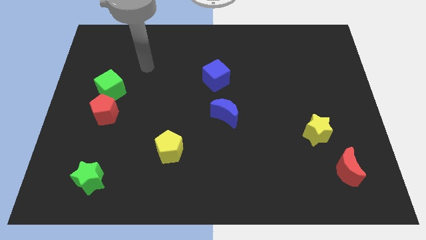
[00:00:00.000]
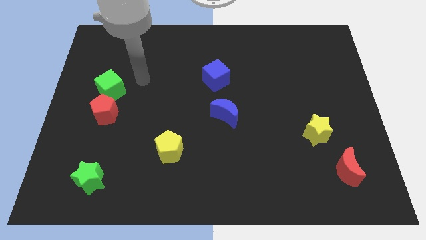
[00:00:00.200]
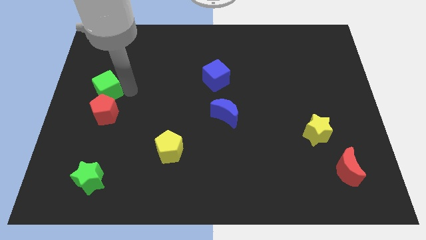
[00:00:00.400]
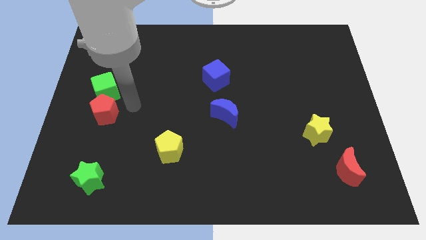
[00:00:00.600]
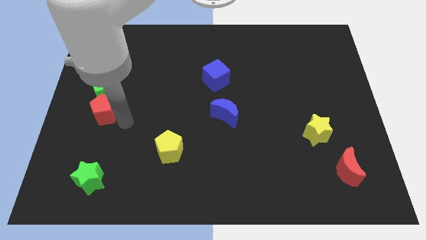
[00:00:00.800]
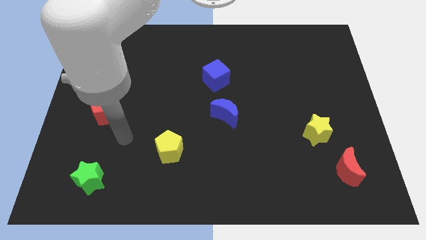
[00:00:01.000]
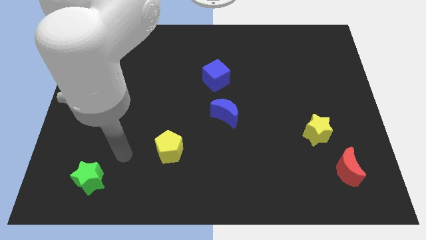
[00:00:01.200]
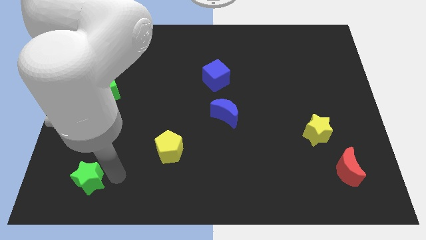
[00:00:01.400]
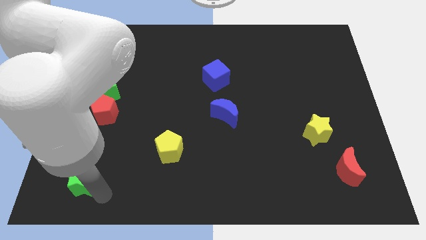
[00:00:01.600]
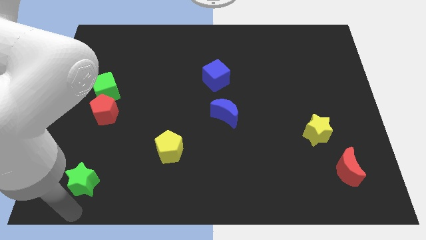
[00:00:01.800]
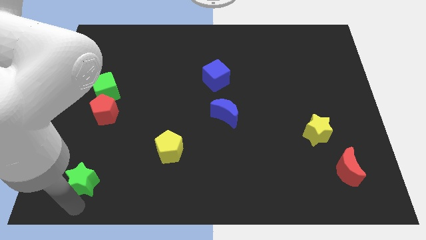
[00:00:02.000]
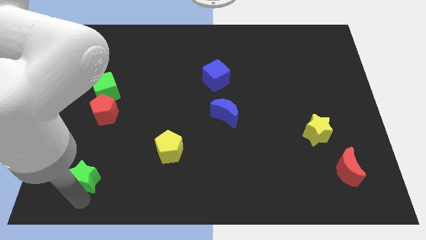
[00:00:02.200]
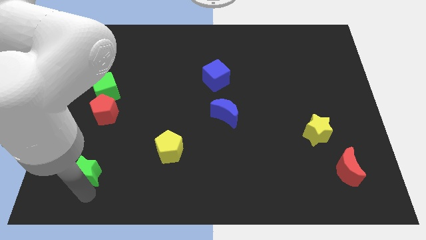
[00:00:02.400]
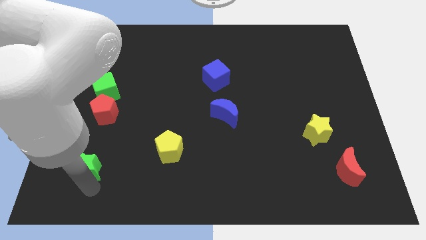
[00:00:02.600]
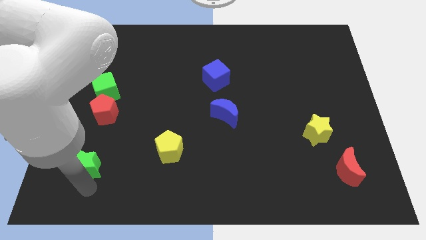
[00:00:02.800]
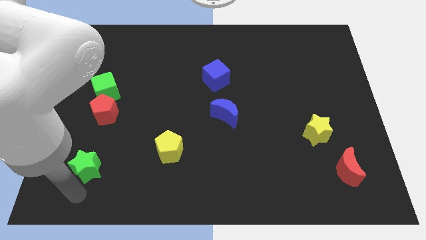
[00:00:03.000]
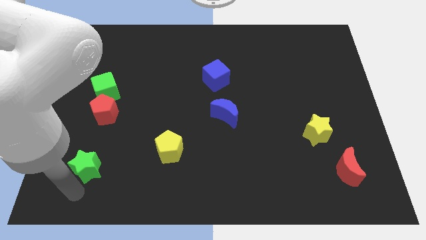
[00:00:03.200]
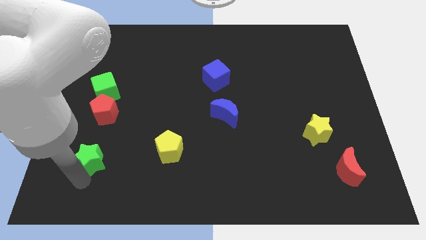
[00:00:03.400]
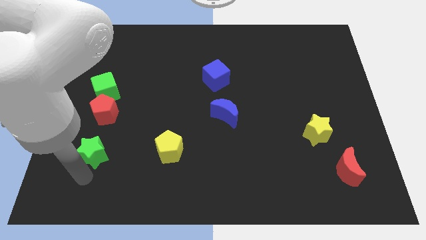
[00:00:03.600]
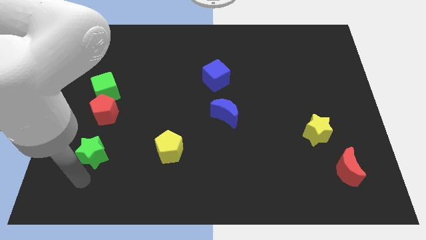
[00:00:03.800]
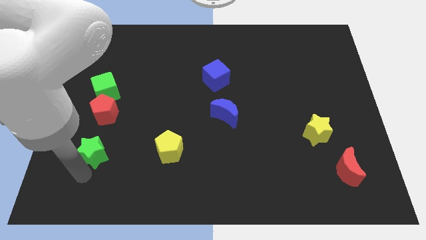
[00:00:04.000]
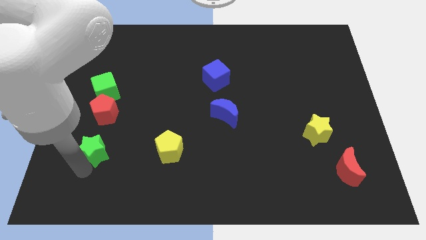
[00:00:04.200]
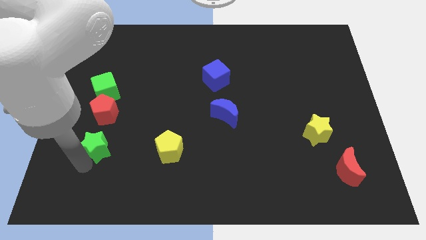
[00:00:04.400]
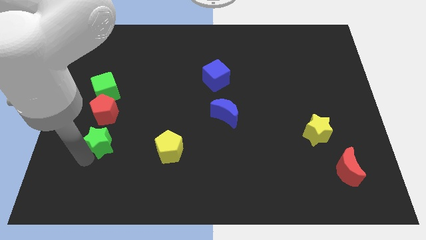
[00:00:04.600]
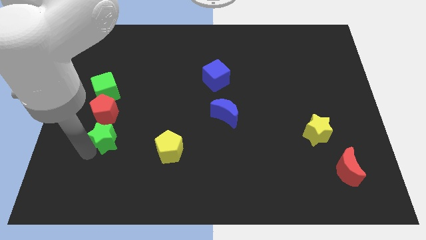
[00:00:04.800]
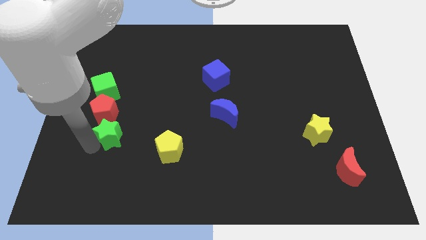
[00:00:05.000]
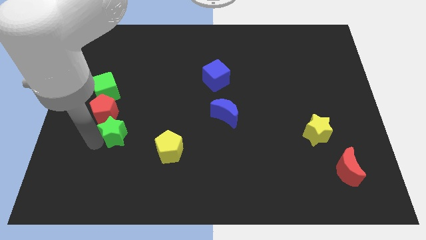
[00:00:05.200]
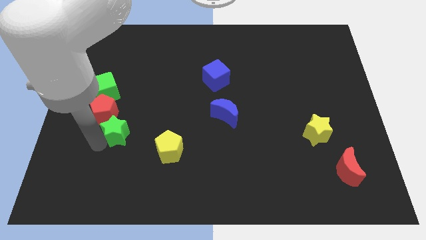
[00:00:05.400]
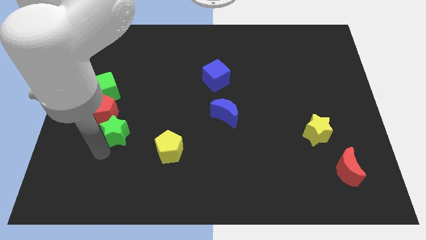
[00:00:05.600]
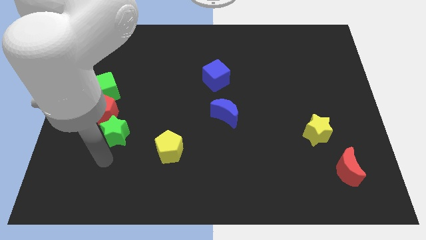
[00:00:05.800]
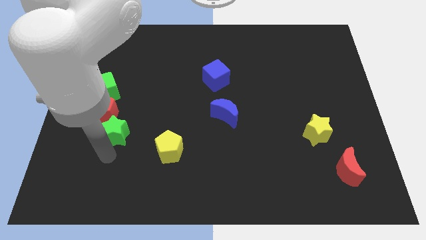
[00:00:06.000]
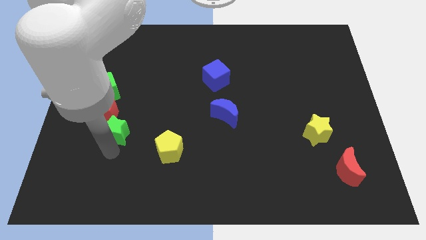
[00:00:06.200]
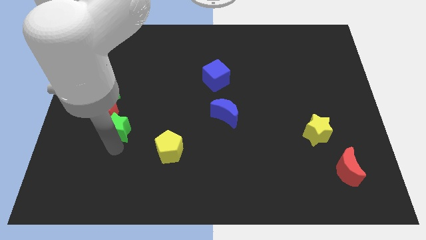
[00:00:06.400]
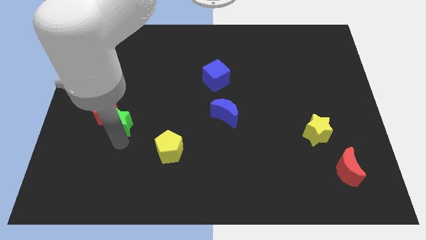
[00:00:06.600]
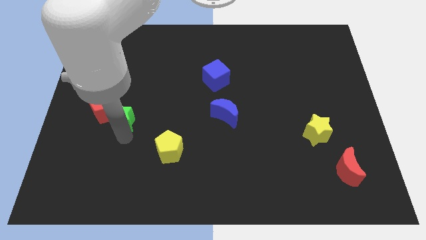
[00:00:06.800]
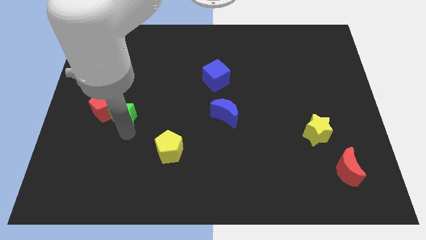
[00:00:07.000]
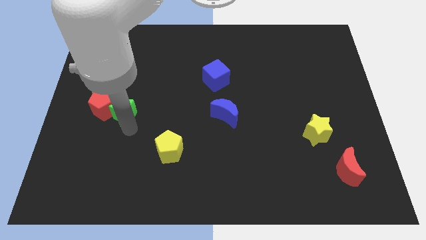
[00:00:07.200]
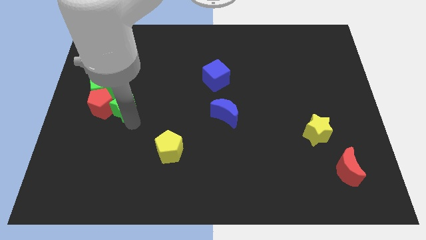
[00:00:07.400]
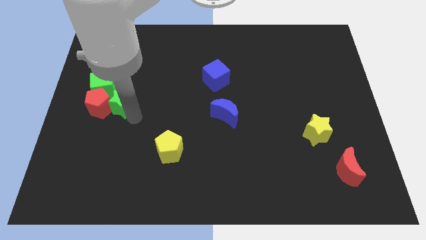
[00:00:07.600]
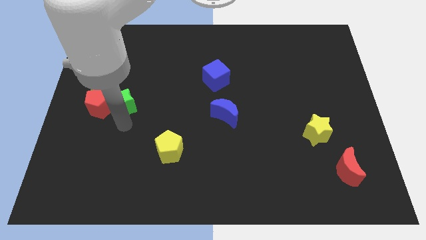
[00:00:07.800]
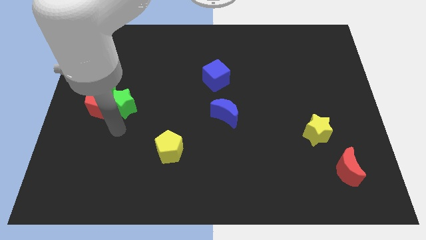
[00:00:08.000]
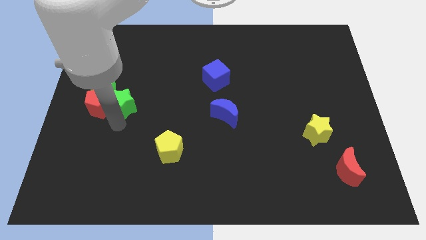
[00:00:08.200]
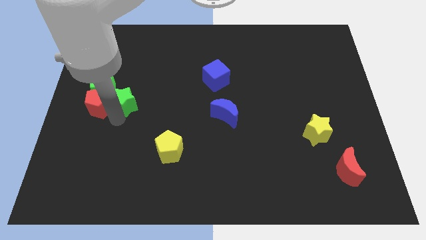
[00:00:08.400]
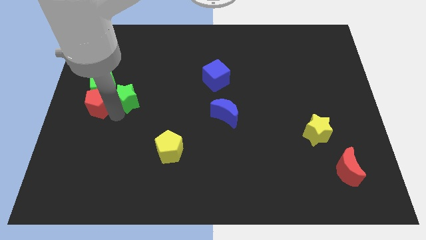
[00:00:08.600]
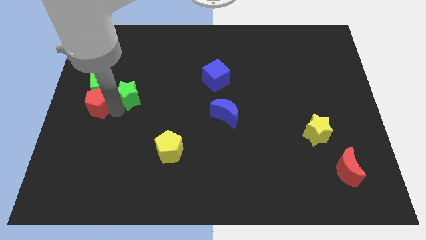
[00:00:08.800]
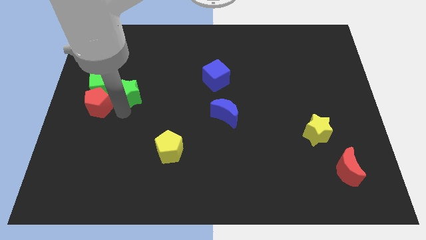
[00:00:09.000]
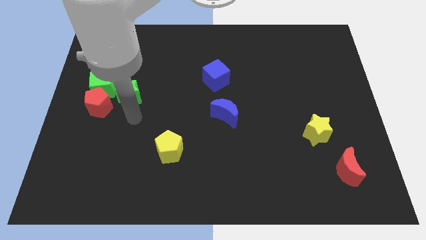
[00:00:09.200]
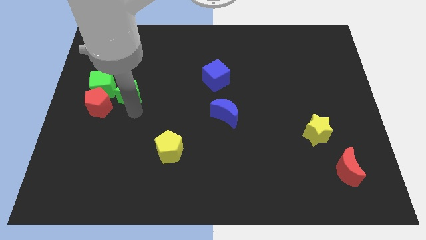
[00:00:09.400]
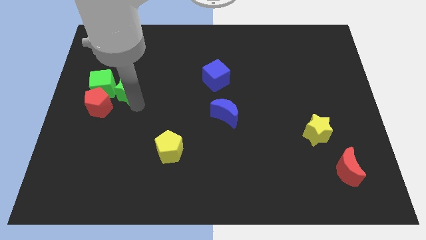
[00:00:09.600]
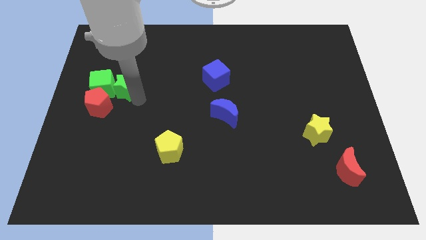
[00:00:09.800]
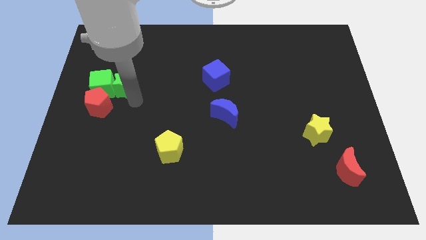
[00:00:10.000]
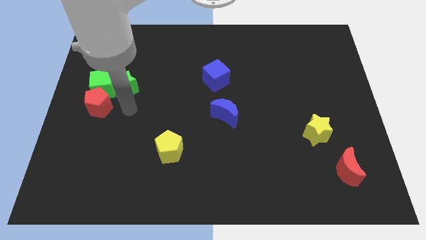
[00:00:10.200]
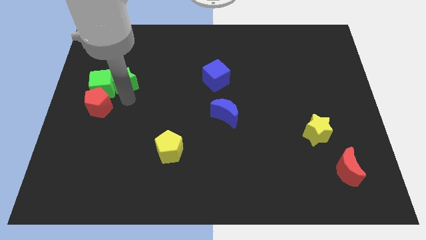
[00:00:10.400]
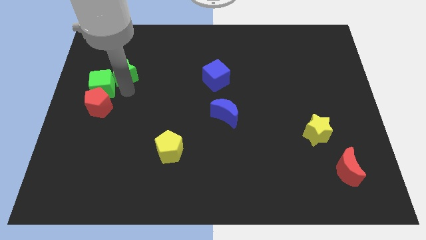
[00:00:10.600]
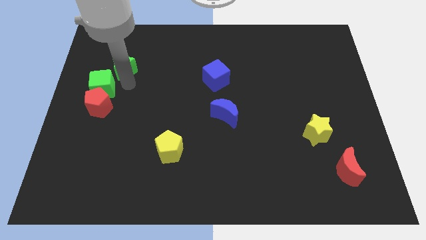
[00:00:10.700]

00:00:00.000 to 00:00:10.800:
slide the green star to the top of the green cube

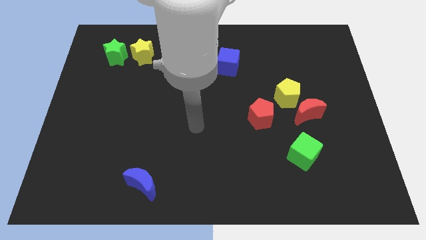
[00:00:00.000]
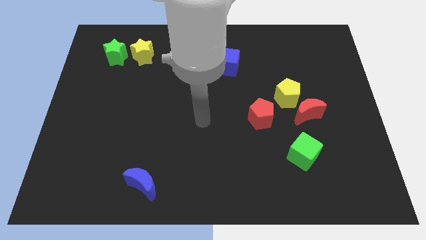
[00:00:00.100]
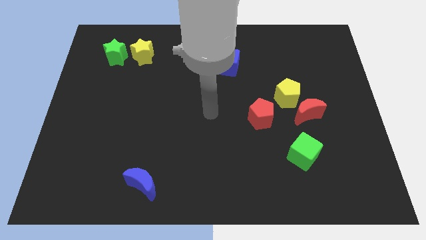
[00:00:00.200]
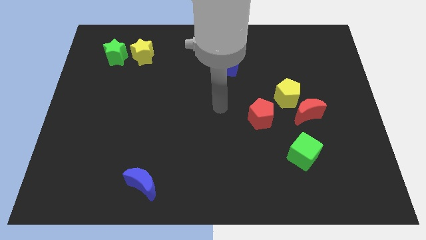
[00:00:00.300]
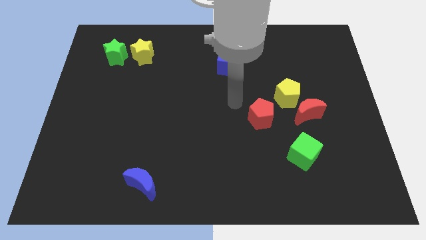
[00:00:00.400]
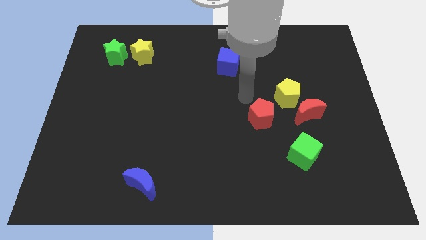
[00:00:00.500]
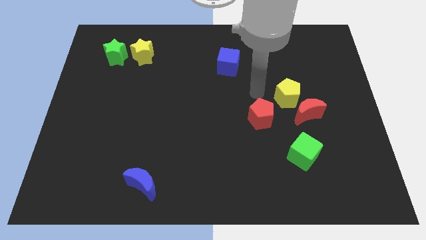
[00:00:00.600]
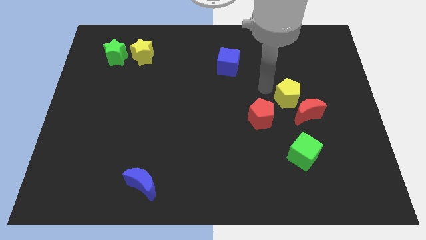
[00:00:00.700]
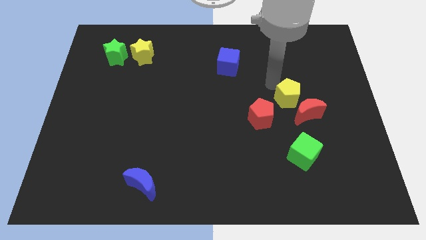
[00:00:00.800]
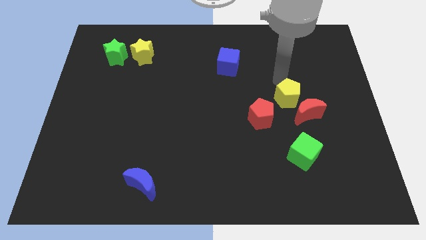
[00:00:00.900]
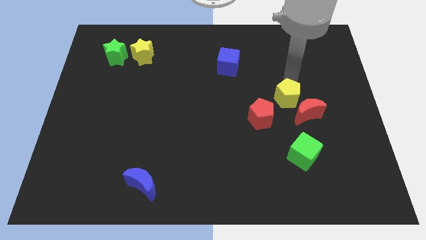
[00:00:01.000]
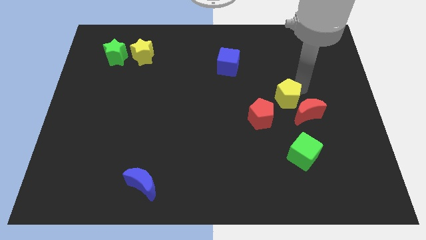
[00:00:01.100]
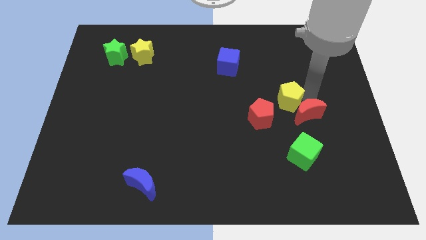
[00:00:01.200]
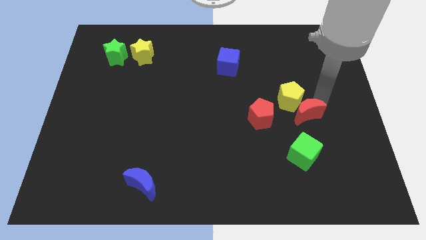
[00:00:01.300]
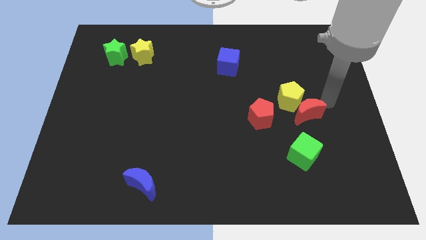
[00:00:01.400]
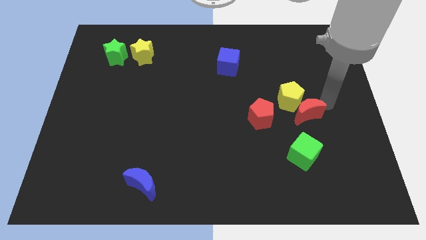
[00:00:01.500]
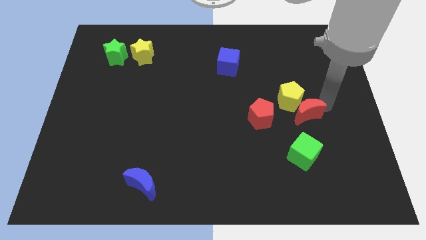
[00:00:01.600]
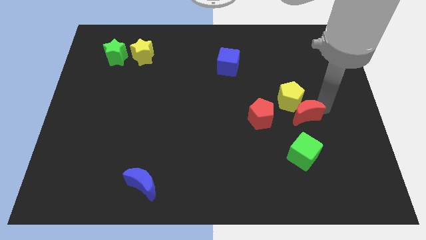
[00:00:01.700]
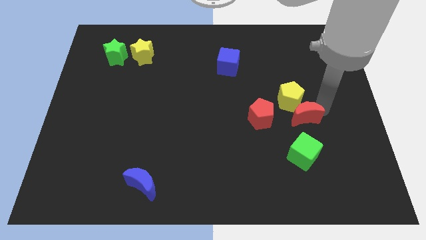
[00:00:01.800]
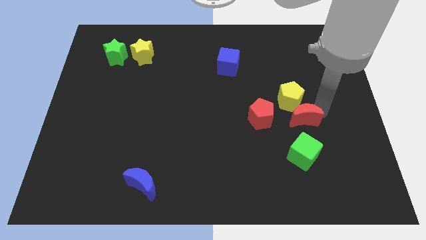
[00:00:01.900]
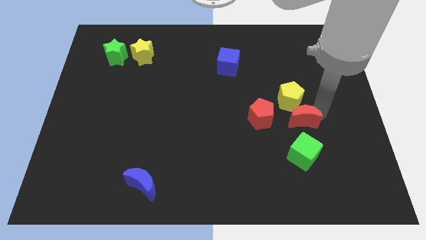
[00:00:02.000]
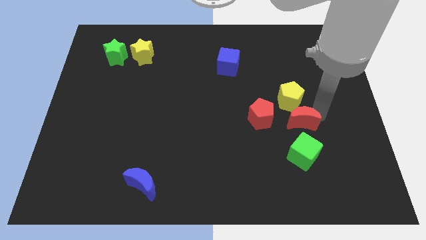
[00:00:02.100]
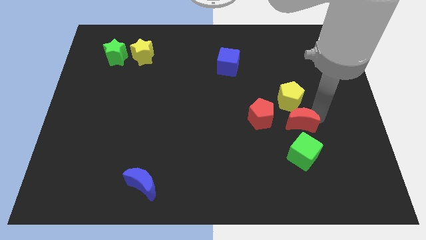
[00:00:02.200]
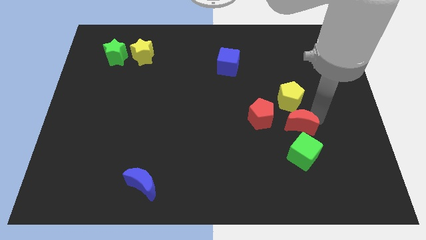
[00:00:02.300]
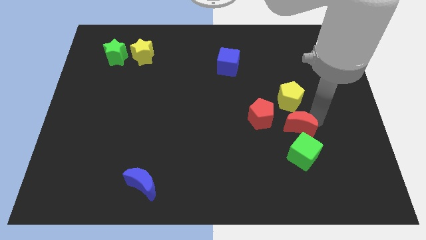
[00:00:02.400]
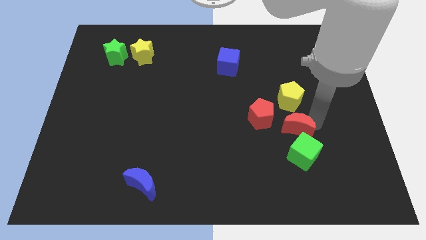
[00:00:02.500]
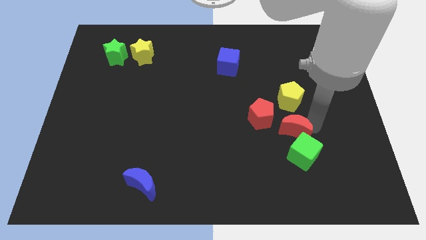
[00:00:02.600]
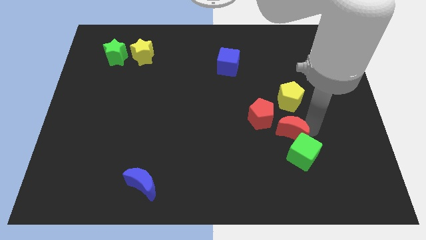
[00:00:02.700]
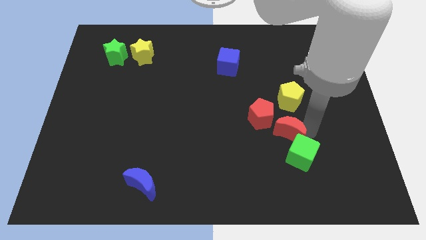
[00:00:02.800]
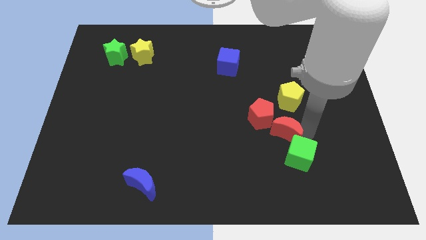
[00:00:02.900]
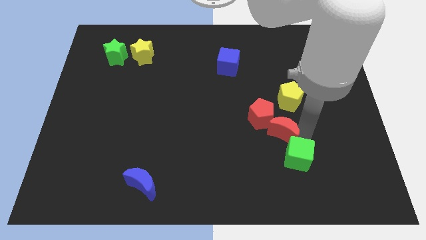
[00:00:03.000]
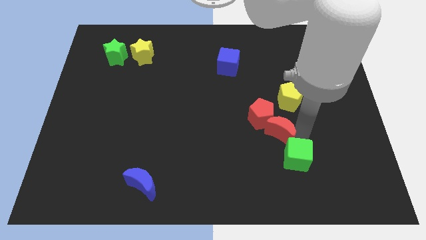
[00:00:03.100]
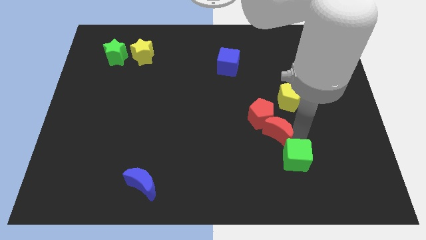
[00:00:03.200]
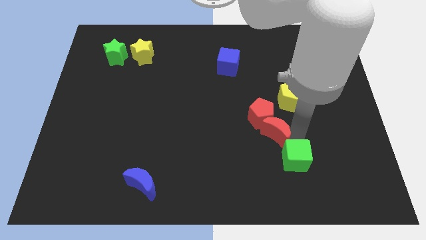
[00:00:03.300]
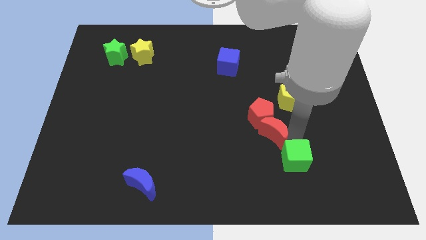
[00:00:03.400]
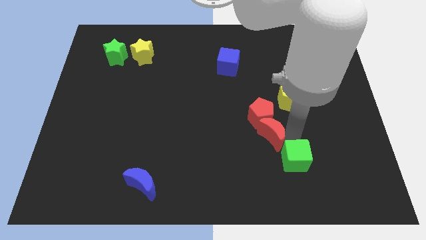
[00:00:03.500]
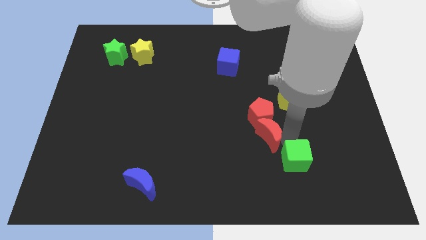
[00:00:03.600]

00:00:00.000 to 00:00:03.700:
put the red moon diagonally down and to the left of the red pentagon
